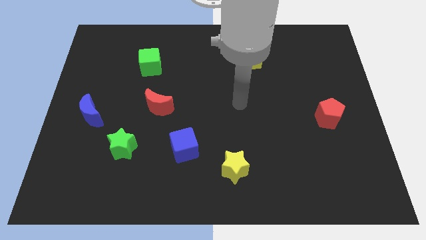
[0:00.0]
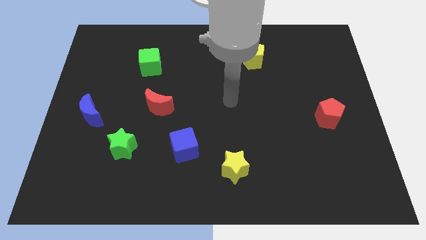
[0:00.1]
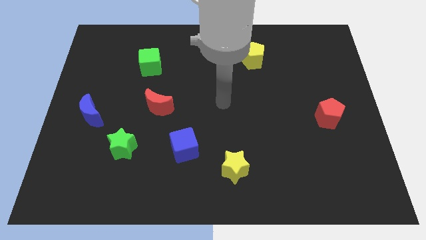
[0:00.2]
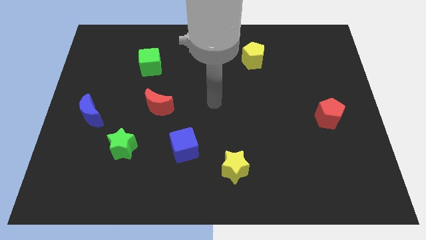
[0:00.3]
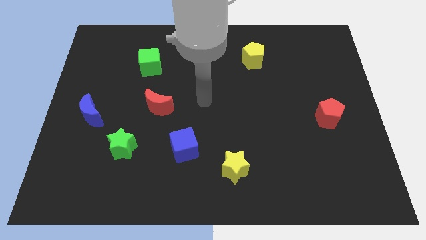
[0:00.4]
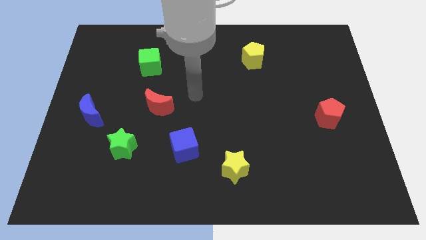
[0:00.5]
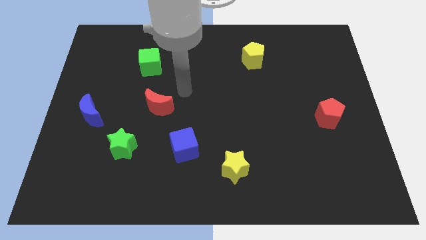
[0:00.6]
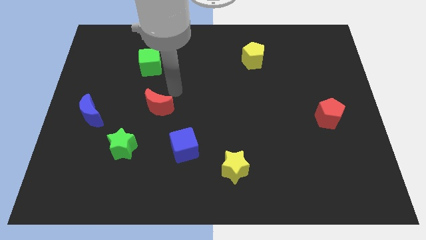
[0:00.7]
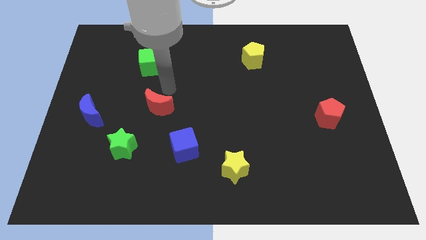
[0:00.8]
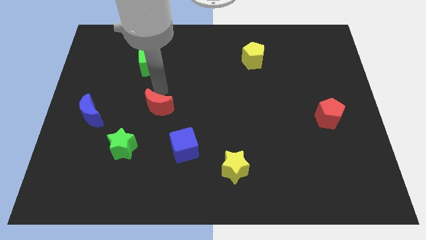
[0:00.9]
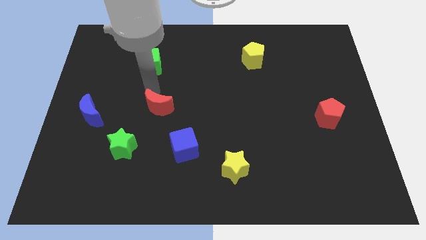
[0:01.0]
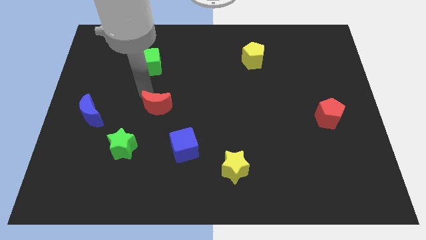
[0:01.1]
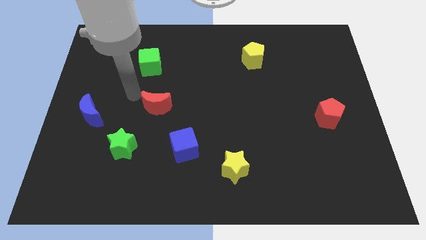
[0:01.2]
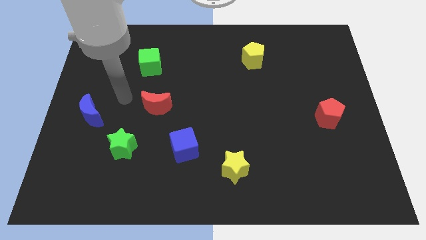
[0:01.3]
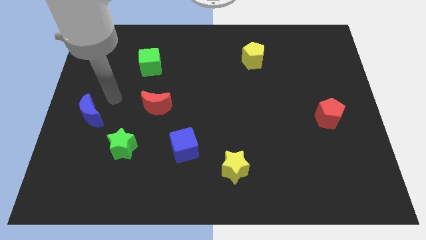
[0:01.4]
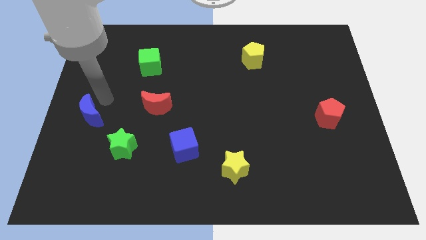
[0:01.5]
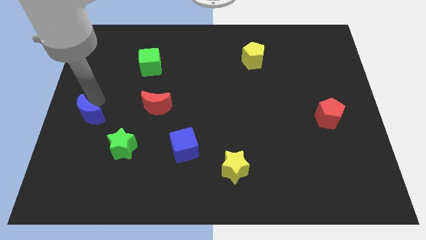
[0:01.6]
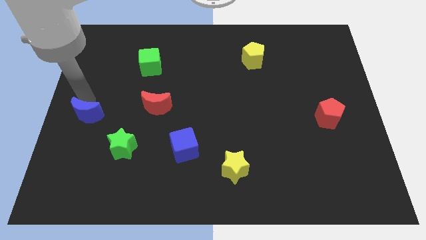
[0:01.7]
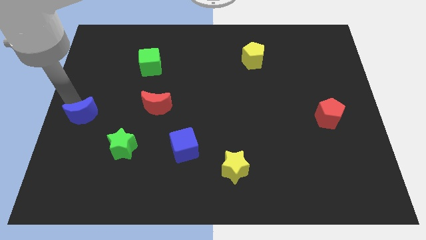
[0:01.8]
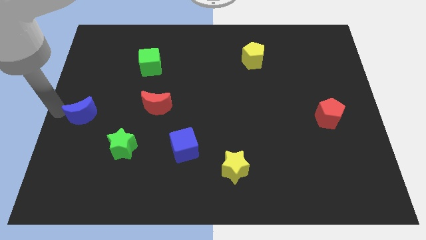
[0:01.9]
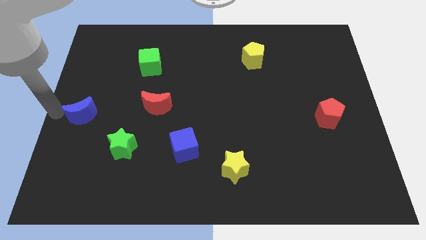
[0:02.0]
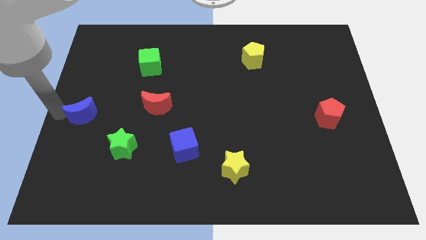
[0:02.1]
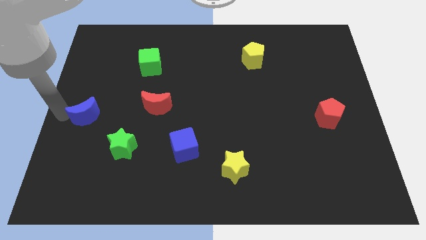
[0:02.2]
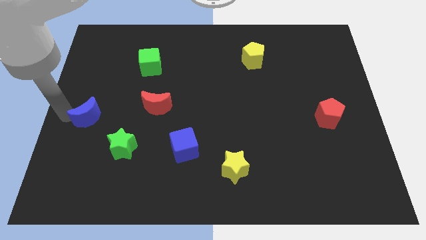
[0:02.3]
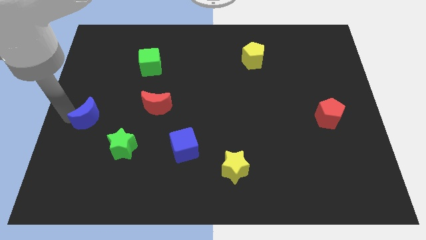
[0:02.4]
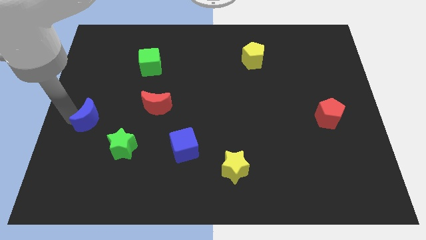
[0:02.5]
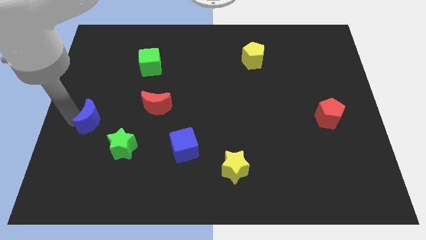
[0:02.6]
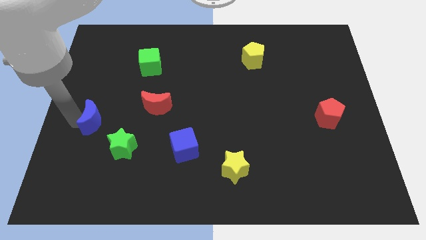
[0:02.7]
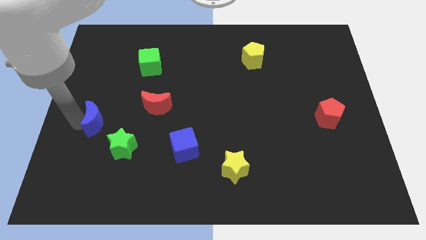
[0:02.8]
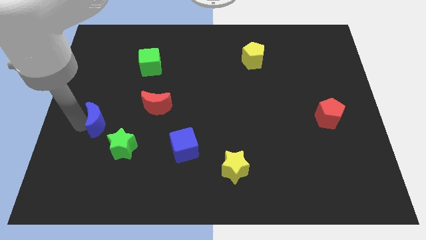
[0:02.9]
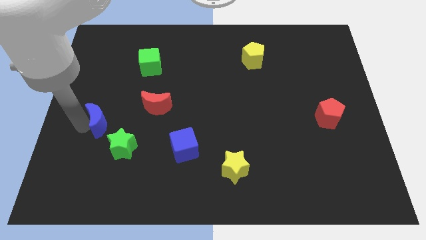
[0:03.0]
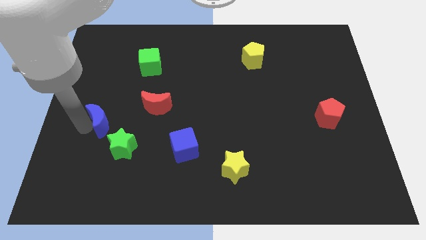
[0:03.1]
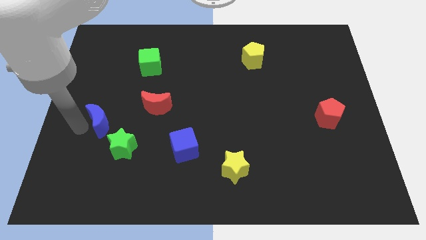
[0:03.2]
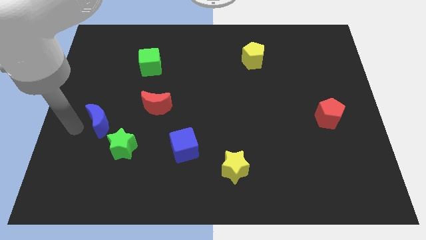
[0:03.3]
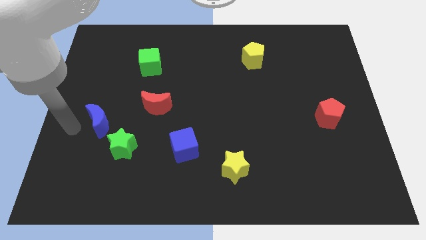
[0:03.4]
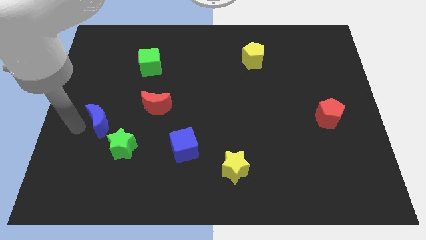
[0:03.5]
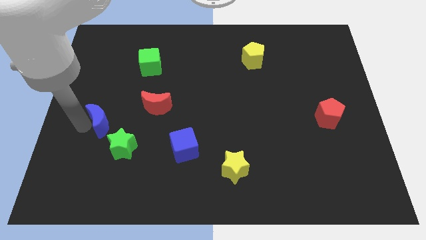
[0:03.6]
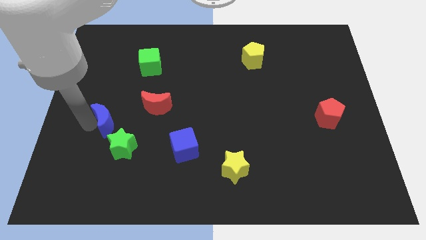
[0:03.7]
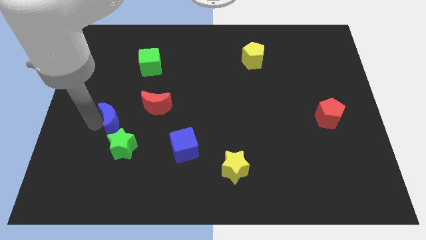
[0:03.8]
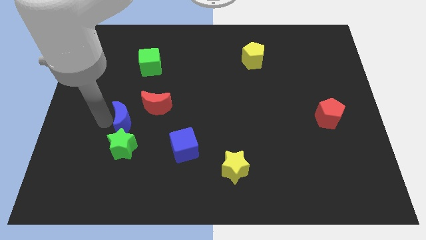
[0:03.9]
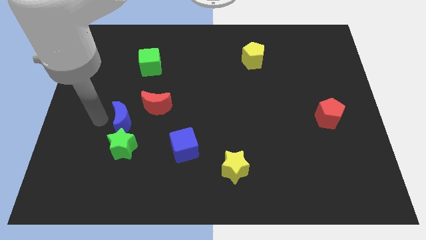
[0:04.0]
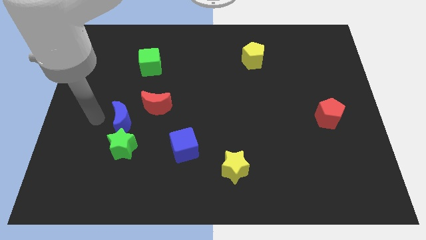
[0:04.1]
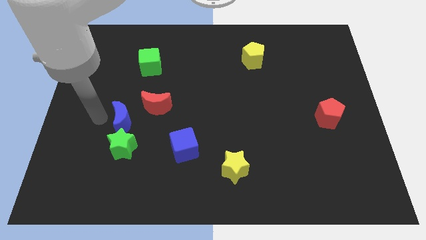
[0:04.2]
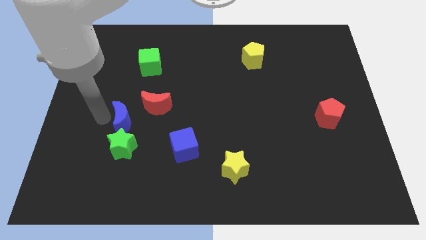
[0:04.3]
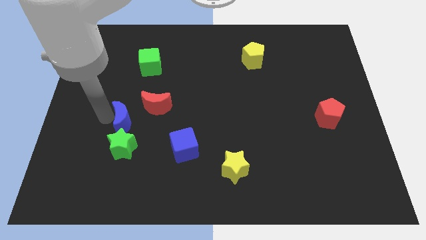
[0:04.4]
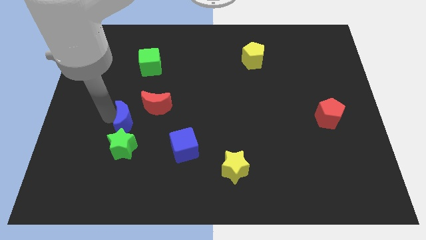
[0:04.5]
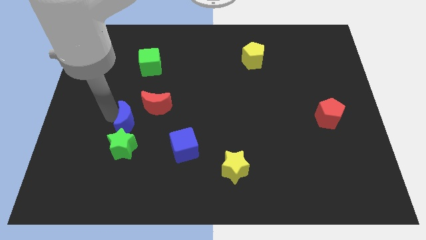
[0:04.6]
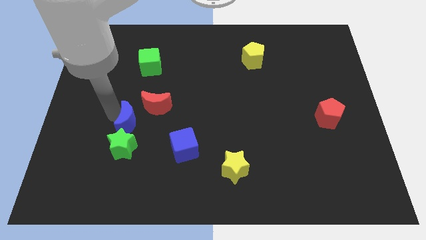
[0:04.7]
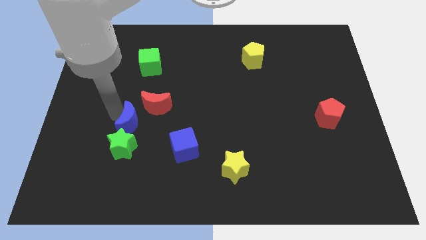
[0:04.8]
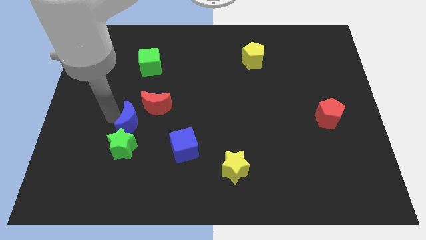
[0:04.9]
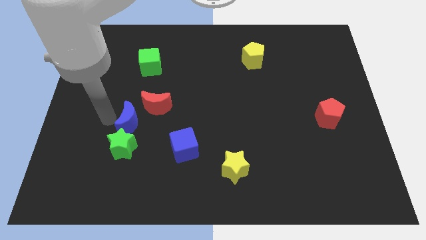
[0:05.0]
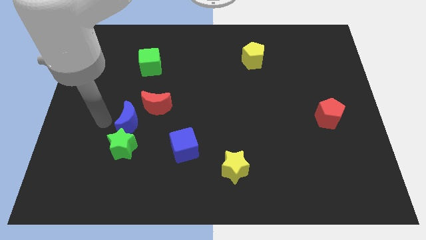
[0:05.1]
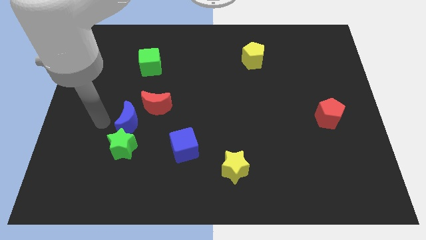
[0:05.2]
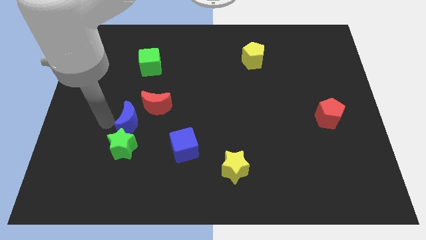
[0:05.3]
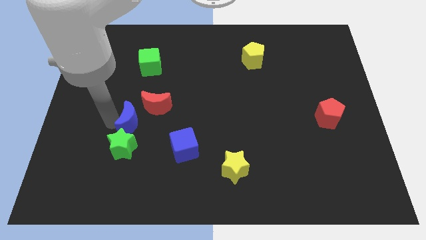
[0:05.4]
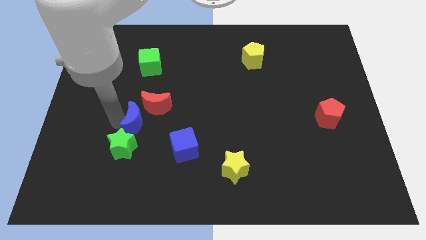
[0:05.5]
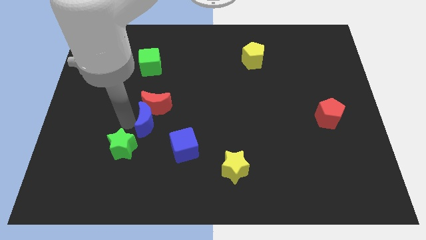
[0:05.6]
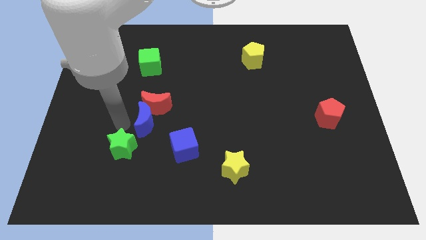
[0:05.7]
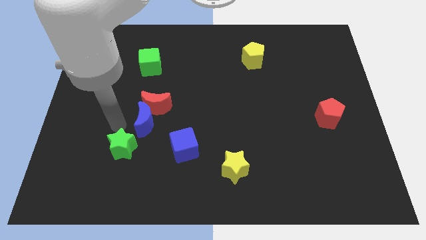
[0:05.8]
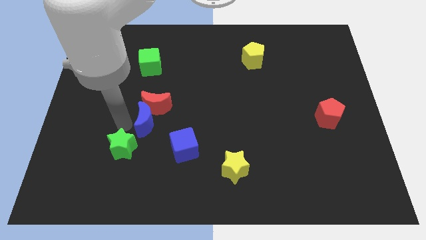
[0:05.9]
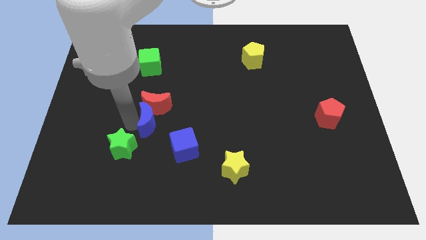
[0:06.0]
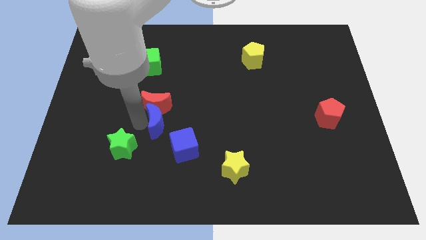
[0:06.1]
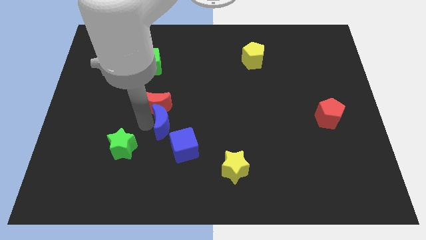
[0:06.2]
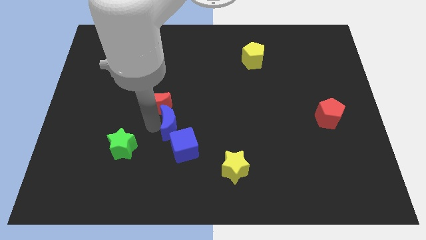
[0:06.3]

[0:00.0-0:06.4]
move the blue moon to the top of the blue cube
